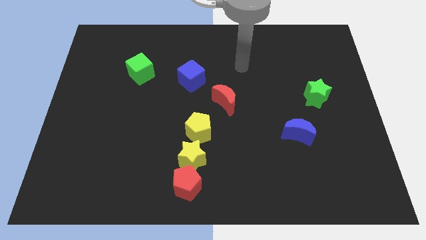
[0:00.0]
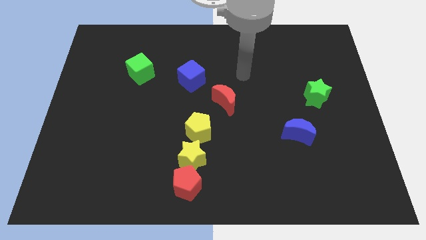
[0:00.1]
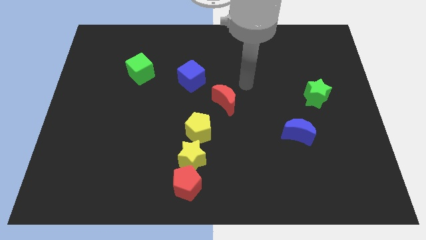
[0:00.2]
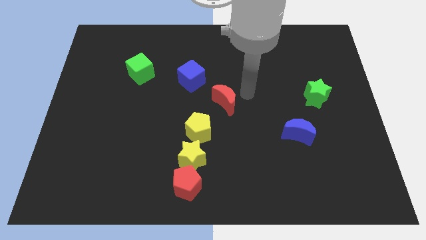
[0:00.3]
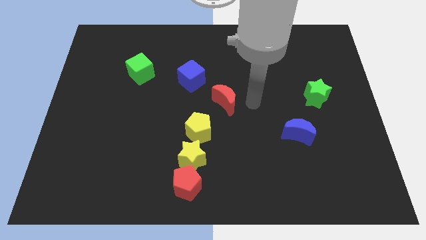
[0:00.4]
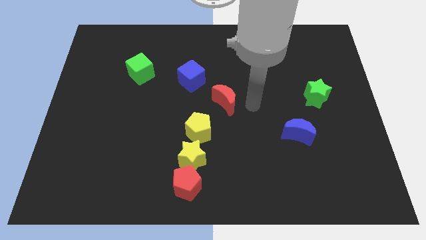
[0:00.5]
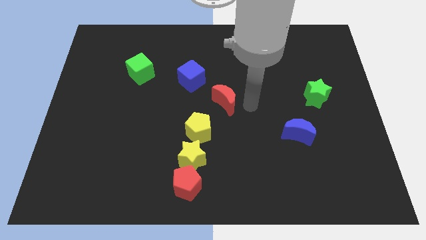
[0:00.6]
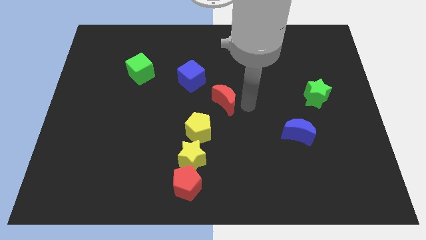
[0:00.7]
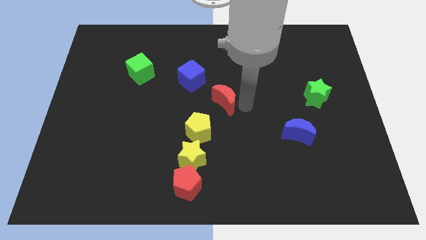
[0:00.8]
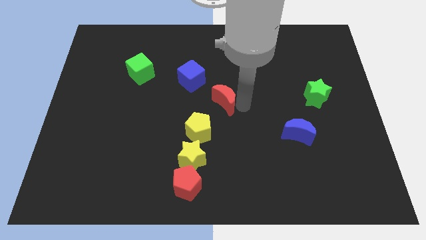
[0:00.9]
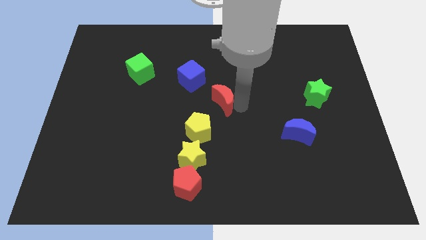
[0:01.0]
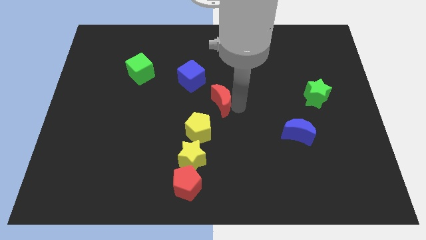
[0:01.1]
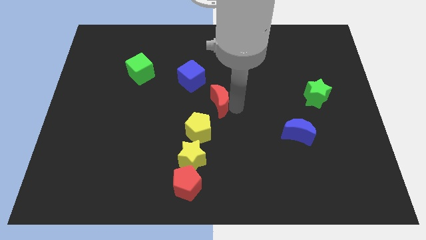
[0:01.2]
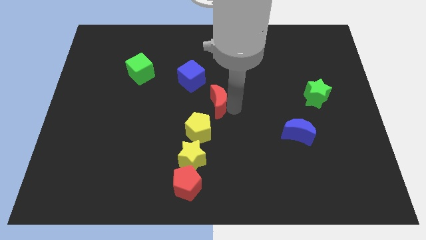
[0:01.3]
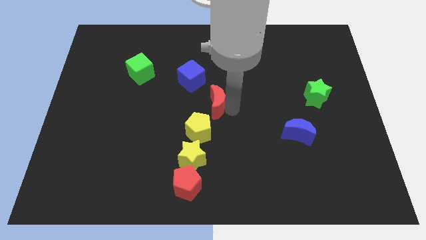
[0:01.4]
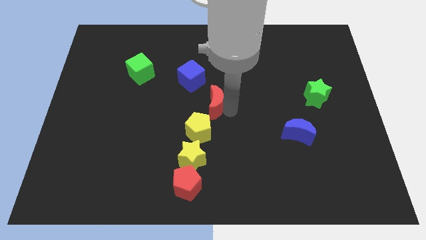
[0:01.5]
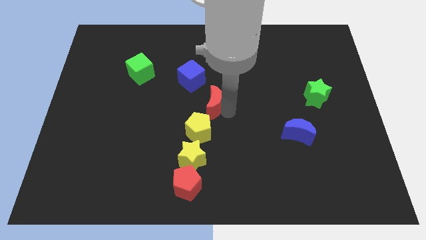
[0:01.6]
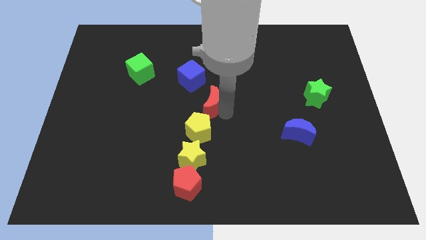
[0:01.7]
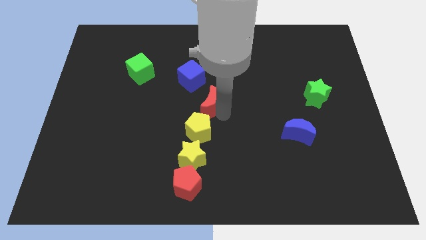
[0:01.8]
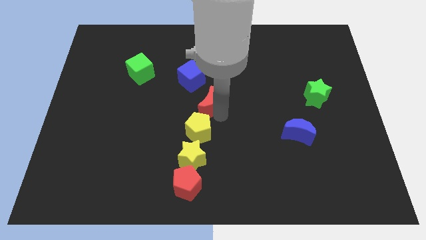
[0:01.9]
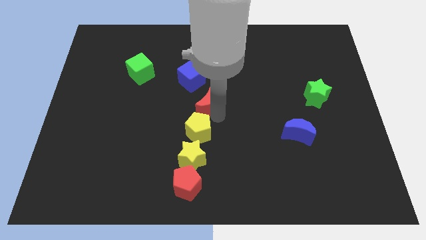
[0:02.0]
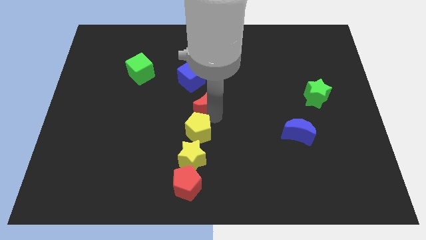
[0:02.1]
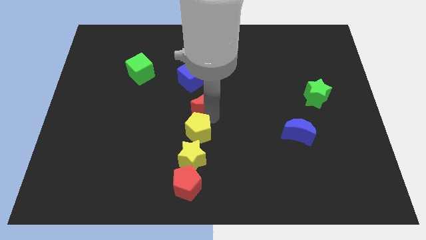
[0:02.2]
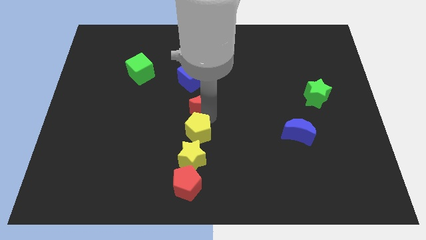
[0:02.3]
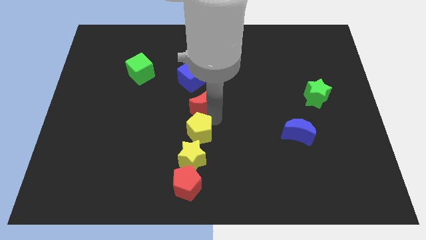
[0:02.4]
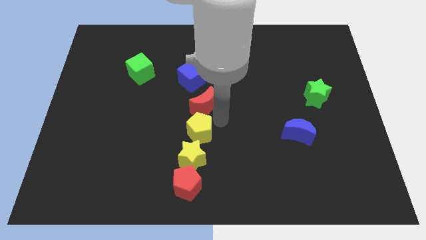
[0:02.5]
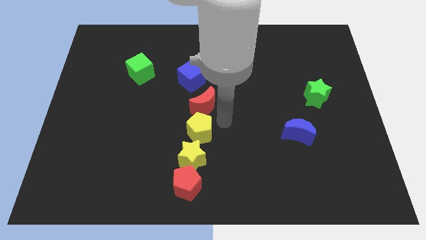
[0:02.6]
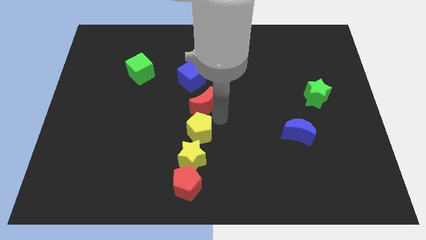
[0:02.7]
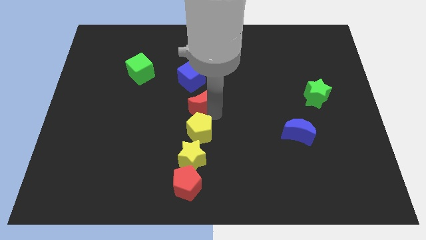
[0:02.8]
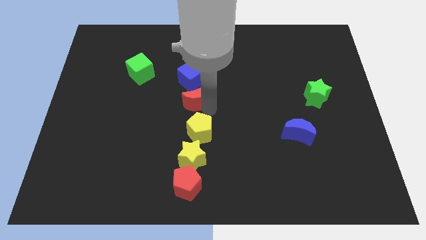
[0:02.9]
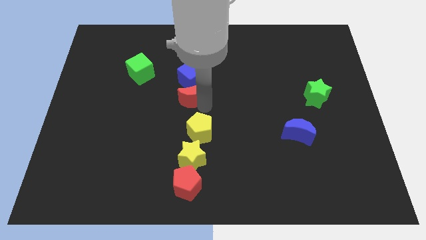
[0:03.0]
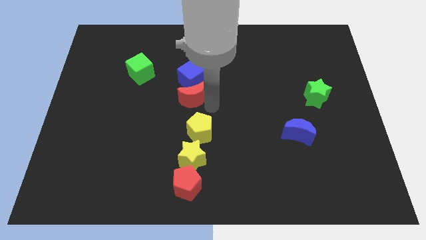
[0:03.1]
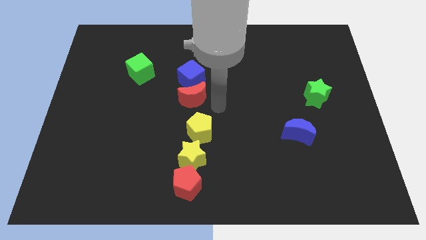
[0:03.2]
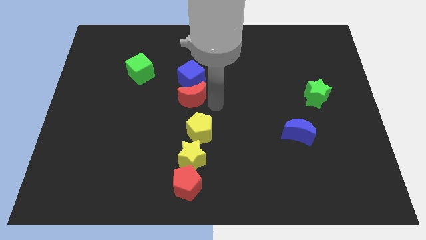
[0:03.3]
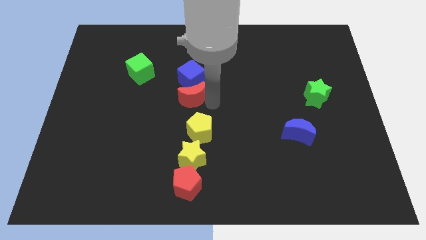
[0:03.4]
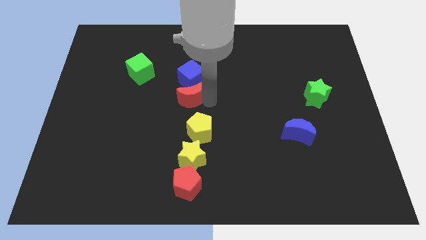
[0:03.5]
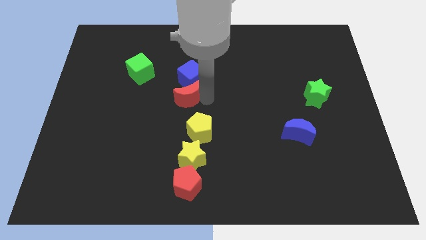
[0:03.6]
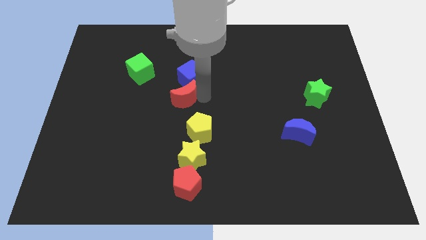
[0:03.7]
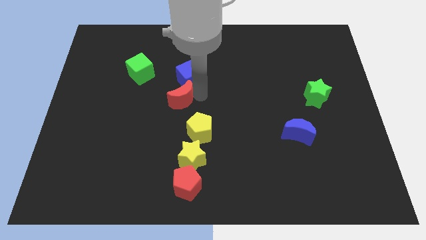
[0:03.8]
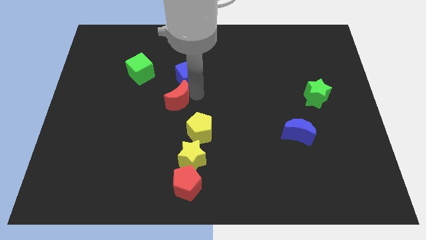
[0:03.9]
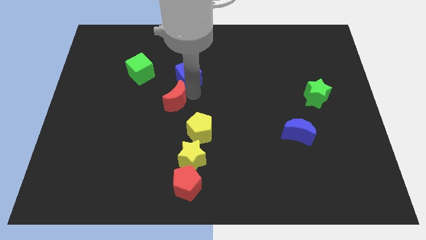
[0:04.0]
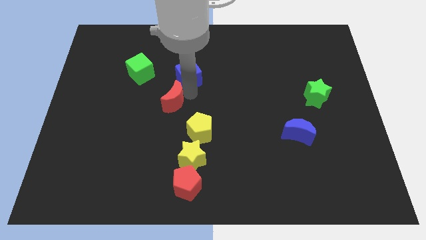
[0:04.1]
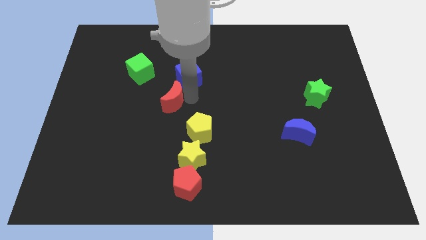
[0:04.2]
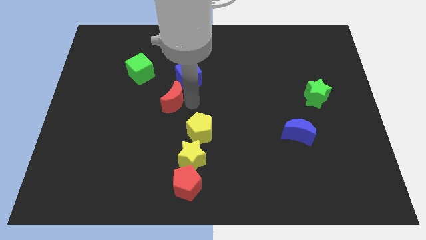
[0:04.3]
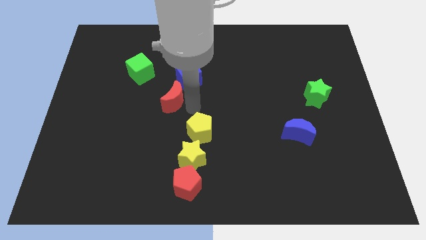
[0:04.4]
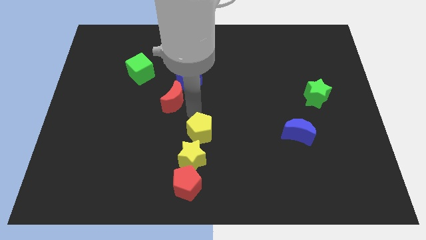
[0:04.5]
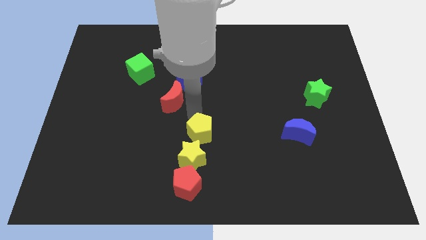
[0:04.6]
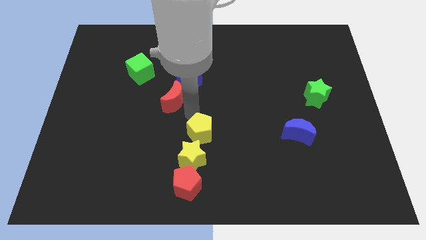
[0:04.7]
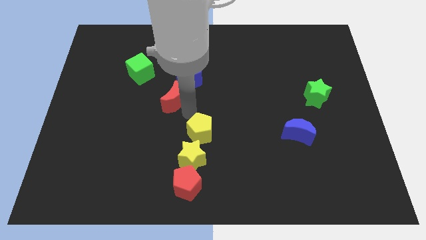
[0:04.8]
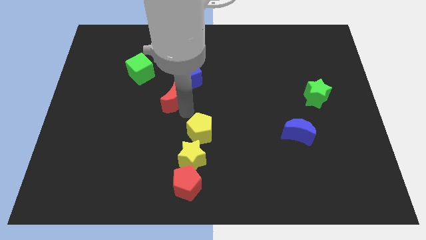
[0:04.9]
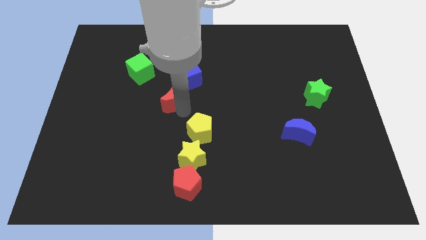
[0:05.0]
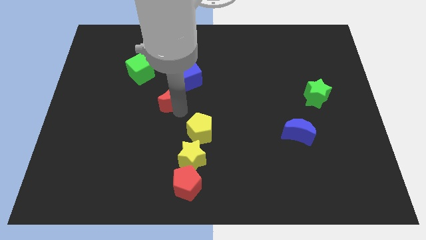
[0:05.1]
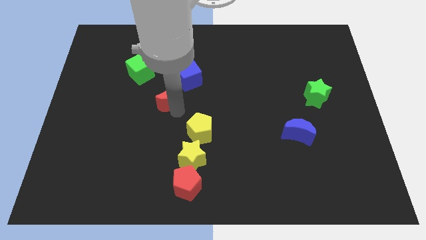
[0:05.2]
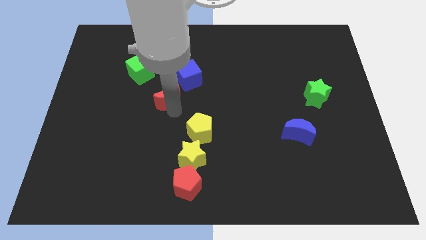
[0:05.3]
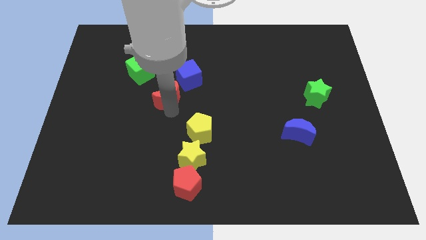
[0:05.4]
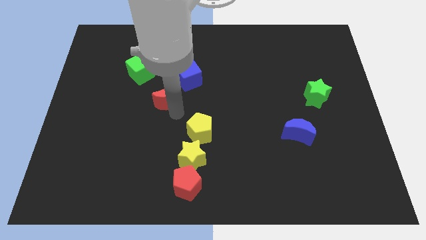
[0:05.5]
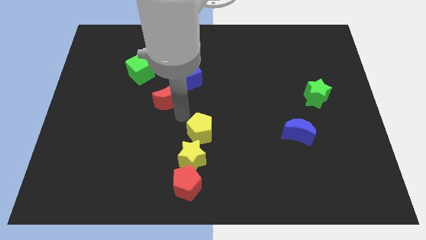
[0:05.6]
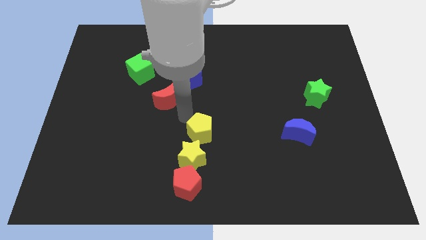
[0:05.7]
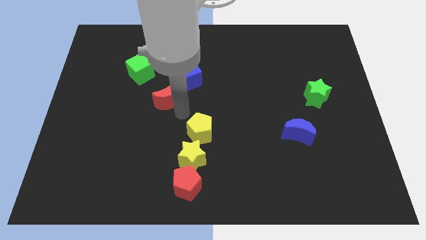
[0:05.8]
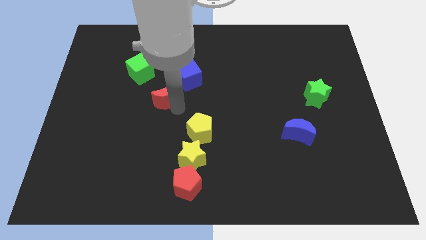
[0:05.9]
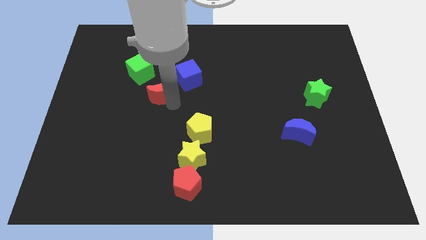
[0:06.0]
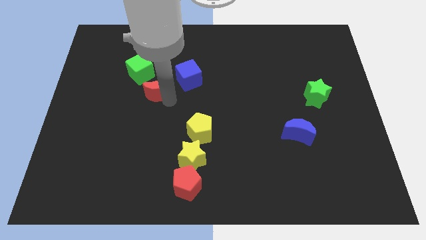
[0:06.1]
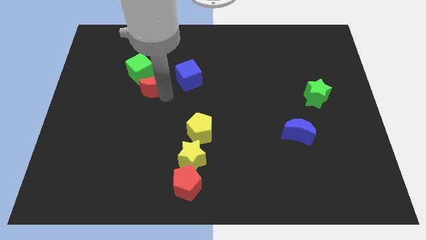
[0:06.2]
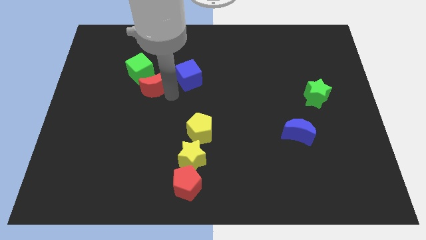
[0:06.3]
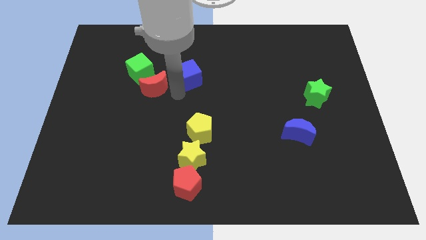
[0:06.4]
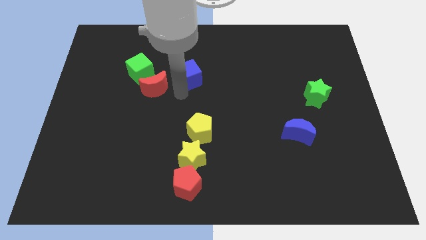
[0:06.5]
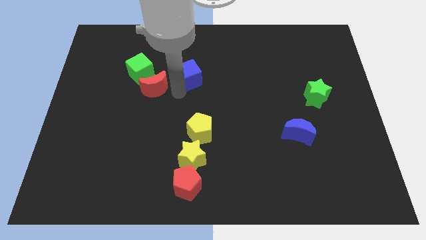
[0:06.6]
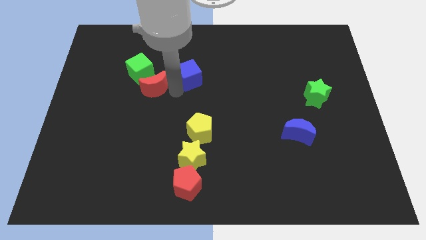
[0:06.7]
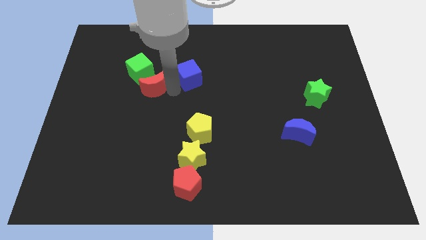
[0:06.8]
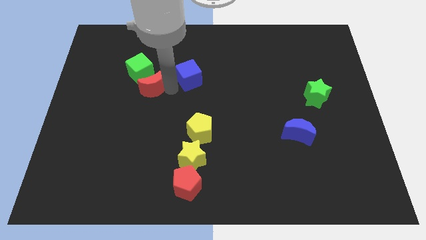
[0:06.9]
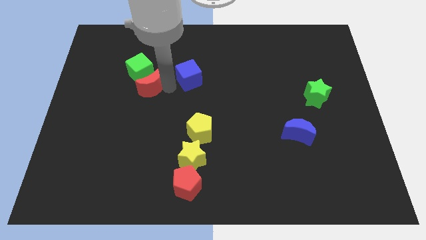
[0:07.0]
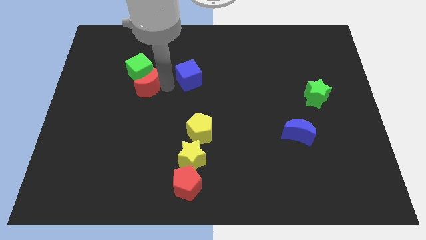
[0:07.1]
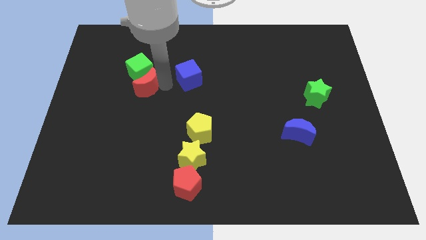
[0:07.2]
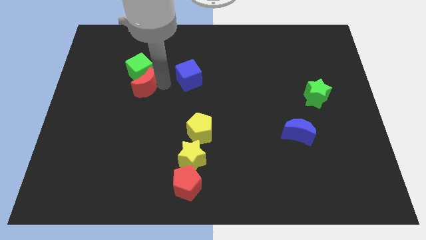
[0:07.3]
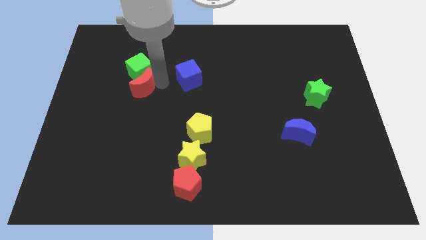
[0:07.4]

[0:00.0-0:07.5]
slide the red moon diagonally down and to the left of the green cube
